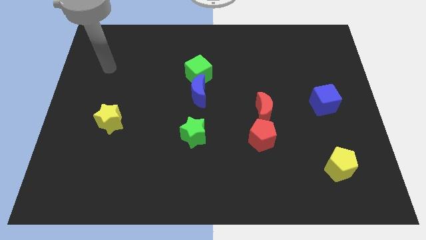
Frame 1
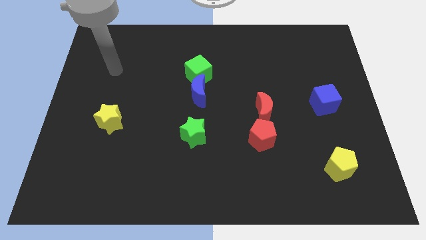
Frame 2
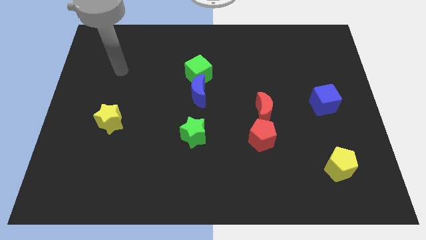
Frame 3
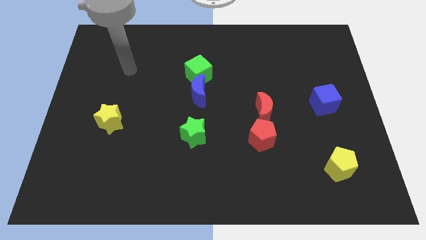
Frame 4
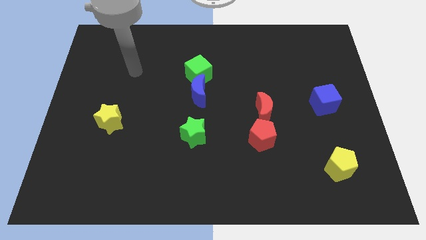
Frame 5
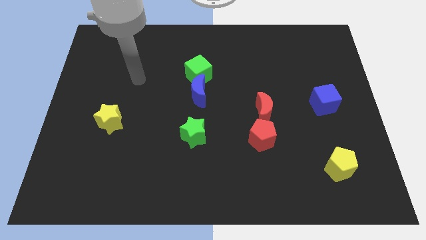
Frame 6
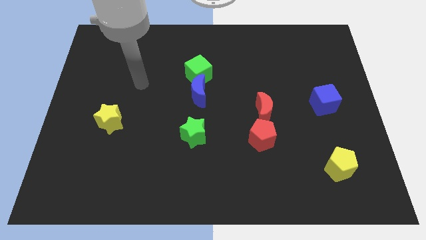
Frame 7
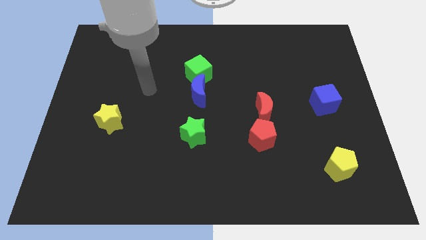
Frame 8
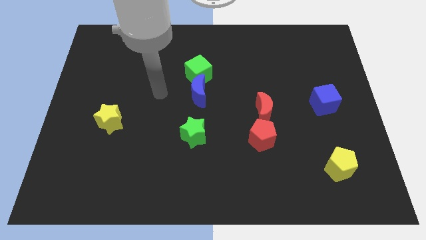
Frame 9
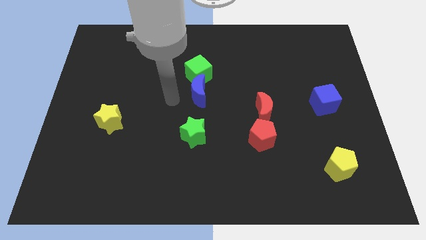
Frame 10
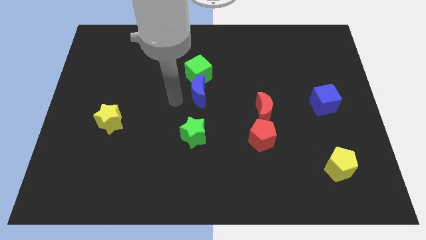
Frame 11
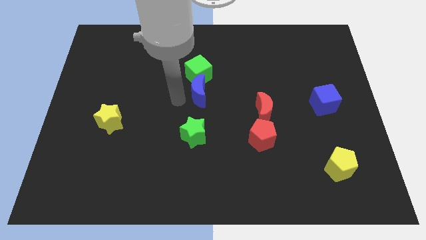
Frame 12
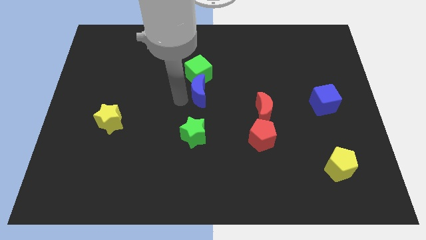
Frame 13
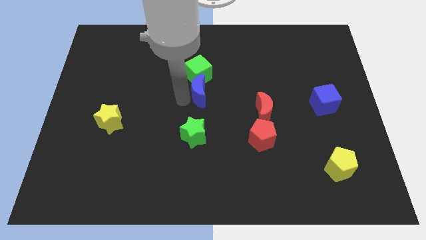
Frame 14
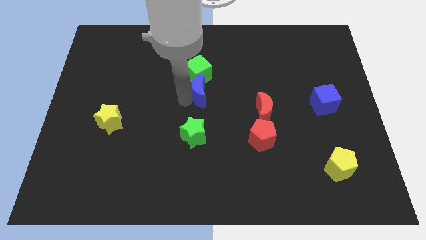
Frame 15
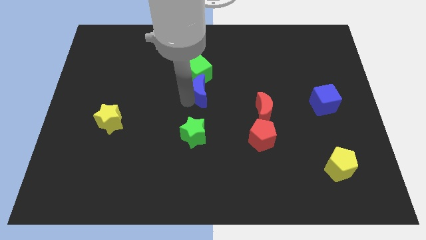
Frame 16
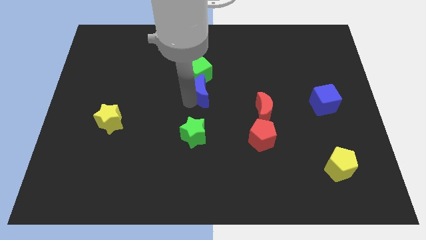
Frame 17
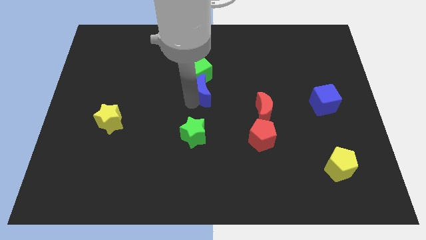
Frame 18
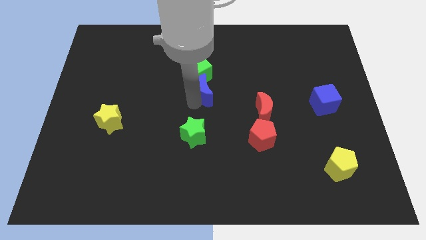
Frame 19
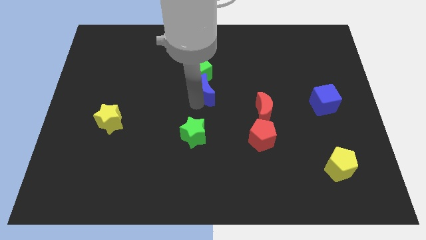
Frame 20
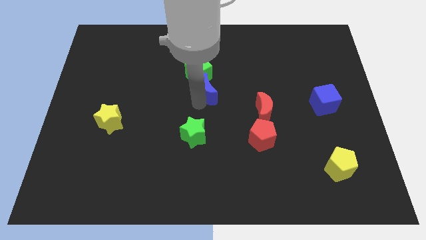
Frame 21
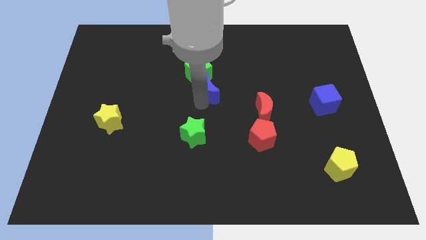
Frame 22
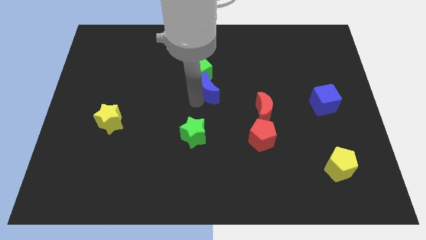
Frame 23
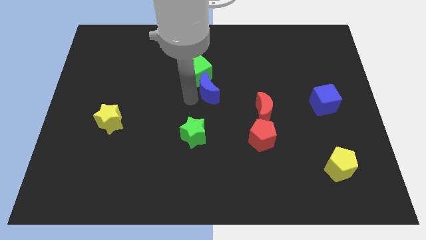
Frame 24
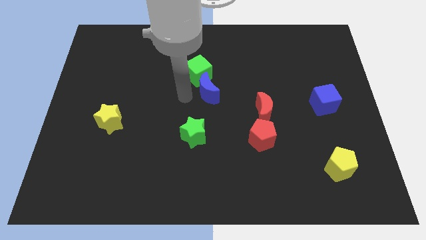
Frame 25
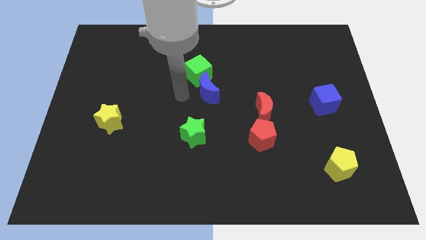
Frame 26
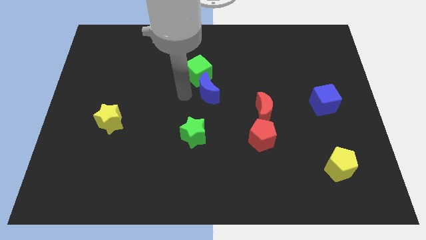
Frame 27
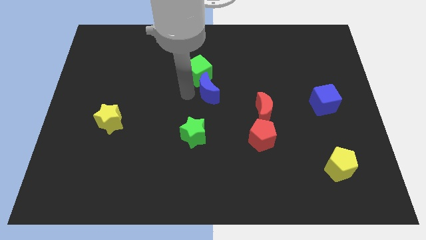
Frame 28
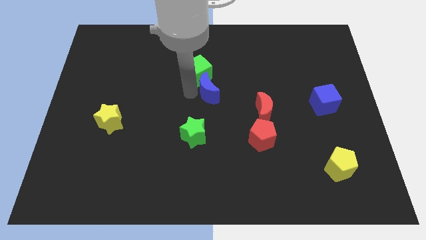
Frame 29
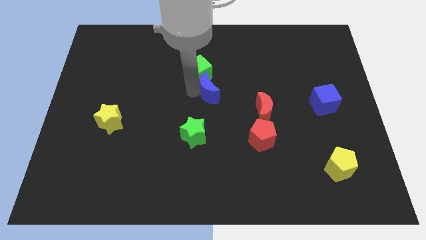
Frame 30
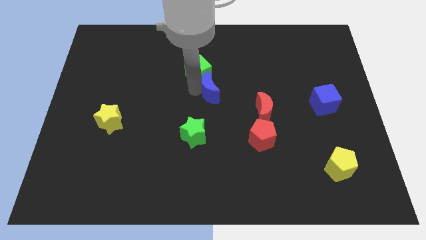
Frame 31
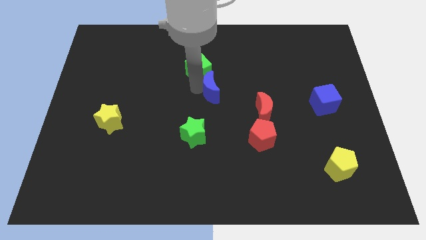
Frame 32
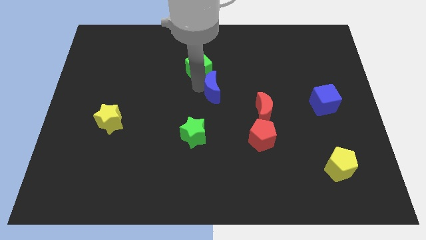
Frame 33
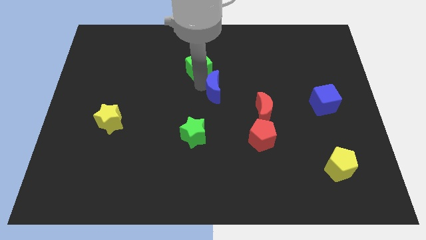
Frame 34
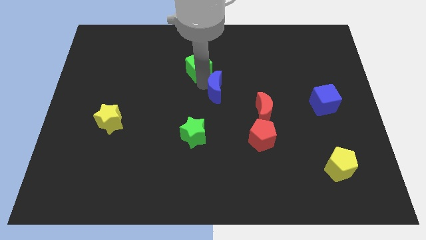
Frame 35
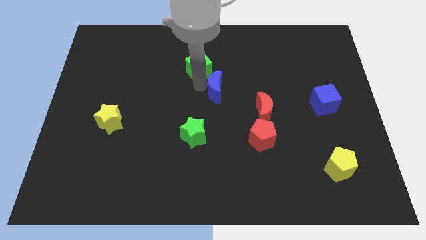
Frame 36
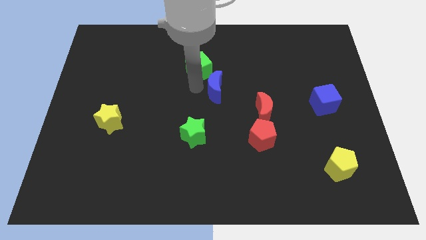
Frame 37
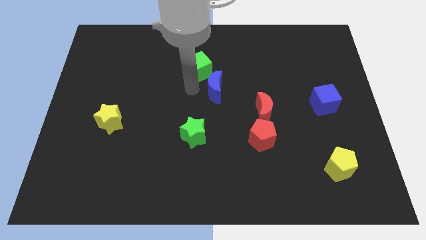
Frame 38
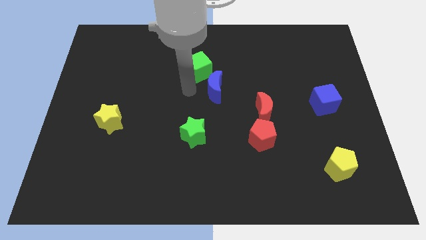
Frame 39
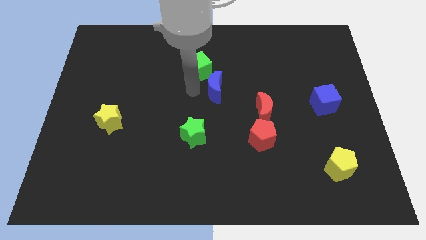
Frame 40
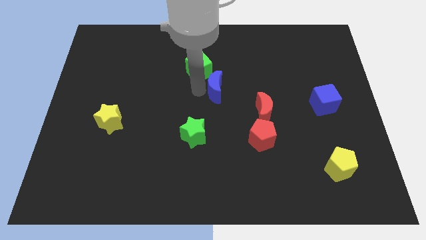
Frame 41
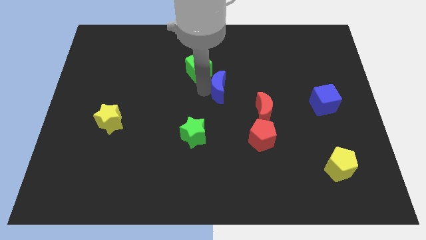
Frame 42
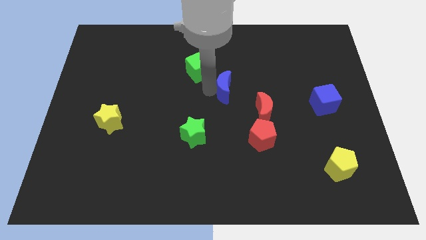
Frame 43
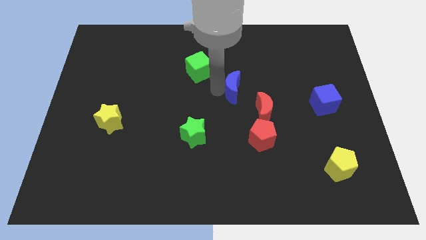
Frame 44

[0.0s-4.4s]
push the blue moon a bit to the right

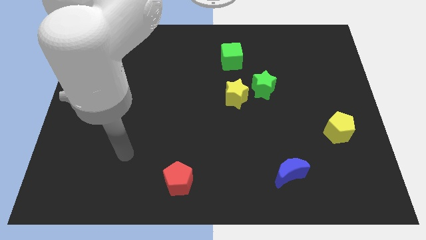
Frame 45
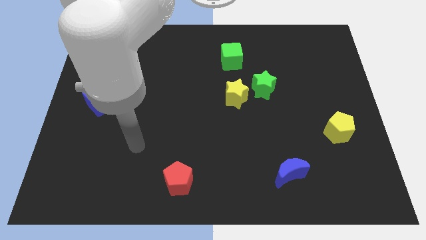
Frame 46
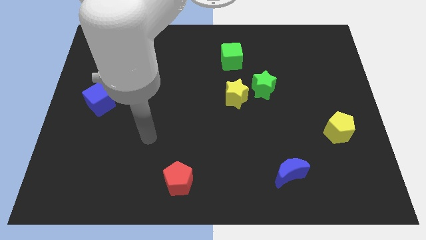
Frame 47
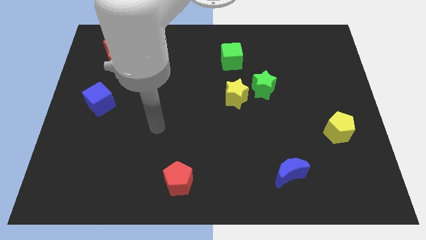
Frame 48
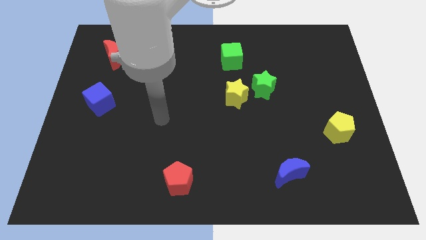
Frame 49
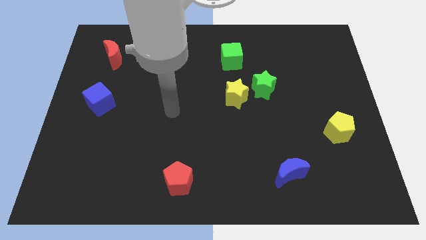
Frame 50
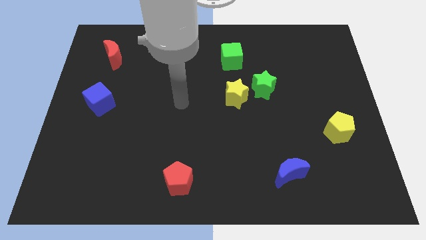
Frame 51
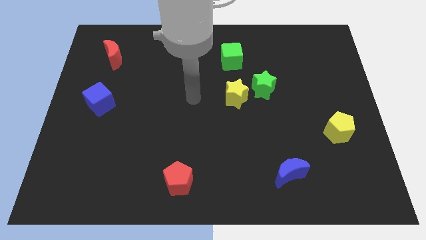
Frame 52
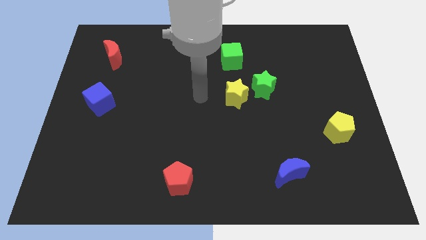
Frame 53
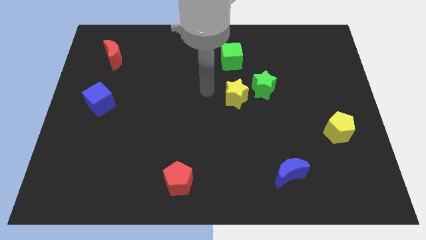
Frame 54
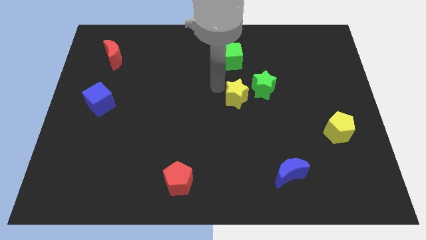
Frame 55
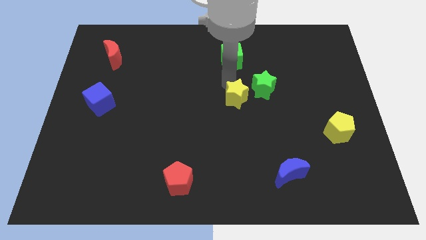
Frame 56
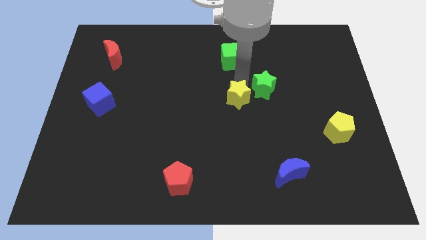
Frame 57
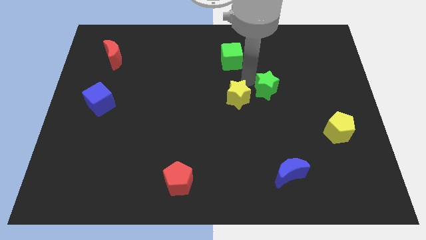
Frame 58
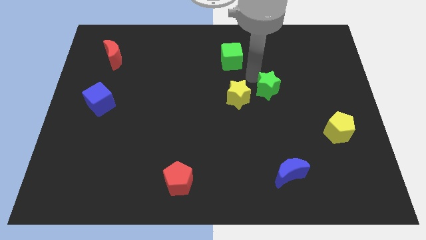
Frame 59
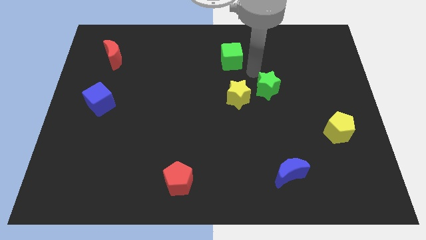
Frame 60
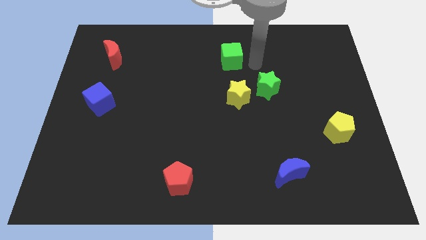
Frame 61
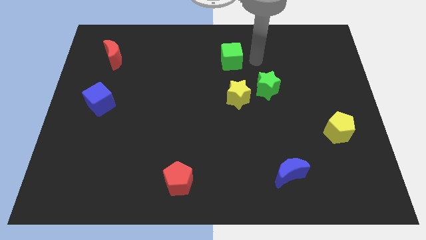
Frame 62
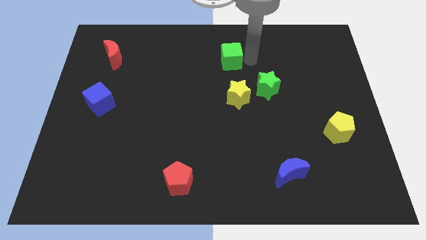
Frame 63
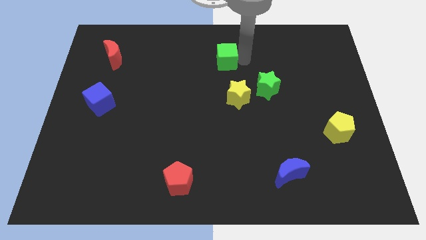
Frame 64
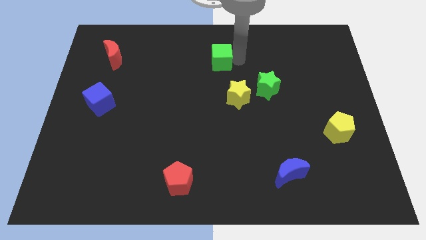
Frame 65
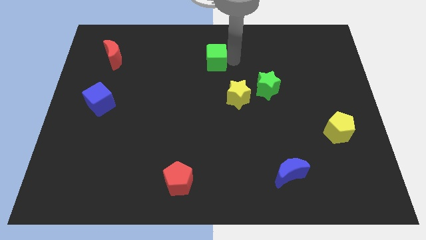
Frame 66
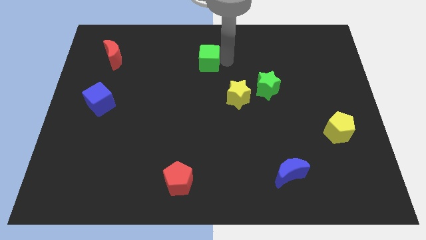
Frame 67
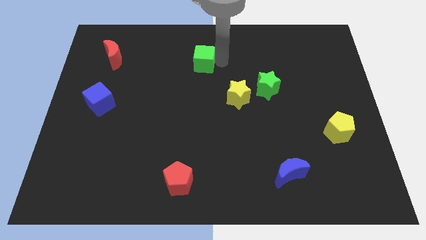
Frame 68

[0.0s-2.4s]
move the green cube slightly to the left

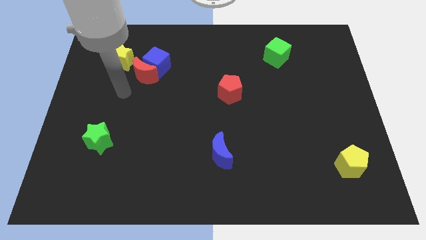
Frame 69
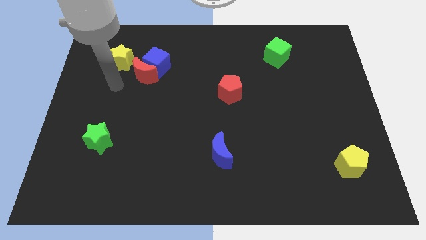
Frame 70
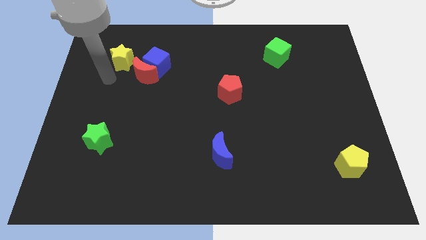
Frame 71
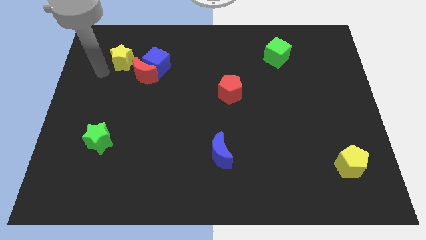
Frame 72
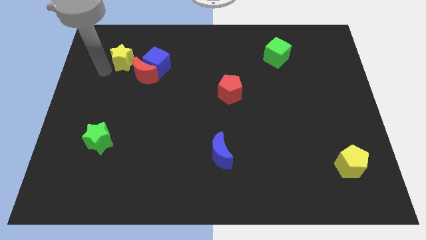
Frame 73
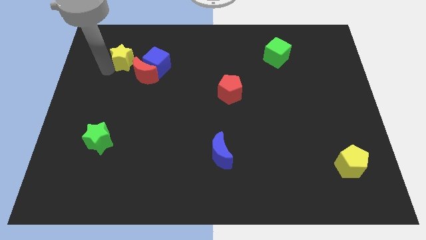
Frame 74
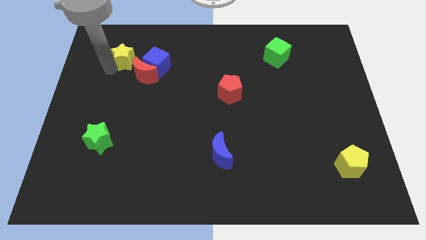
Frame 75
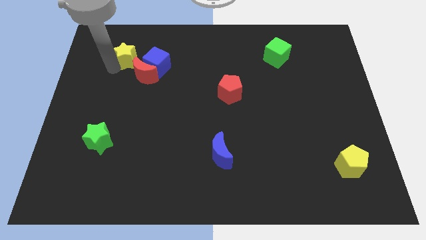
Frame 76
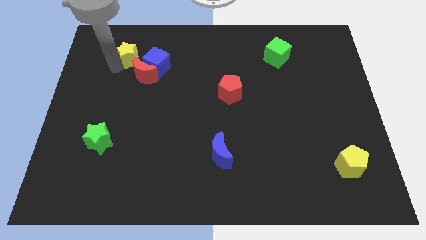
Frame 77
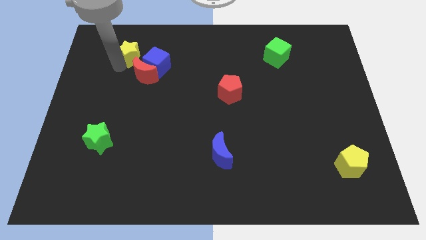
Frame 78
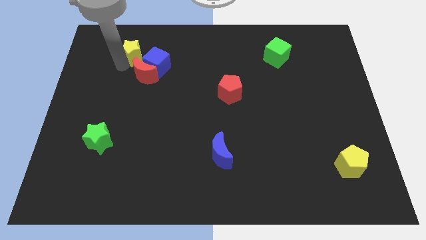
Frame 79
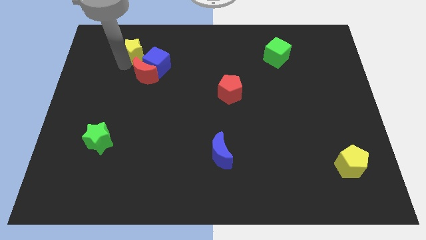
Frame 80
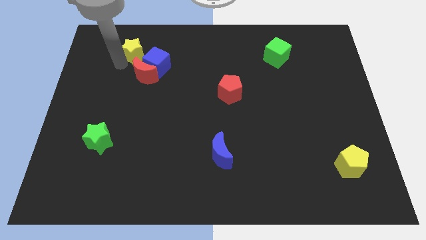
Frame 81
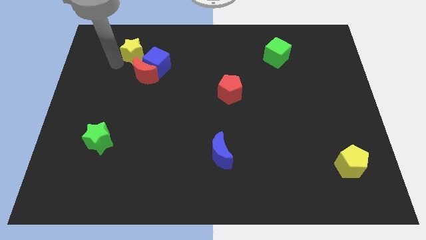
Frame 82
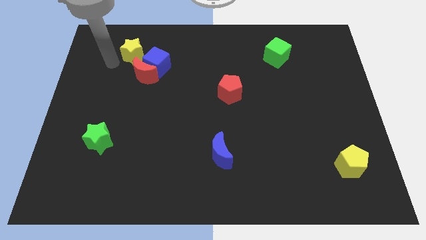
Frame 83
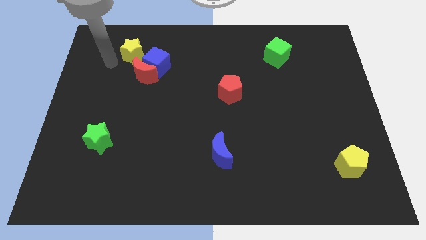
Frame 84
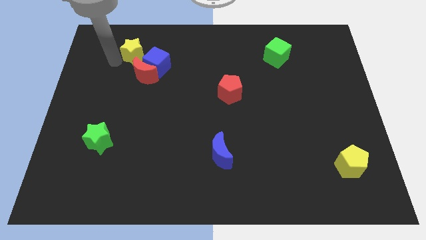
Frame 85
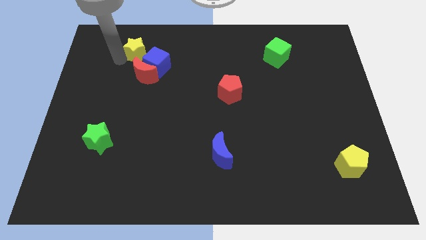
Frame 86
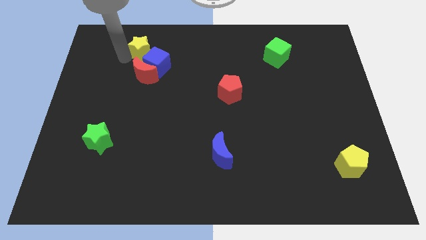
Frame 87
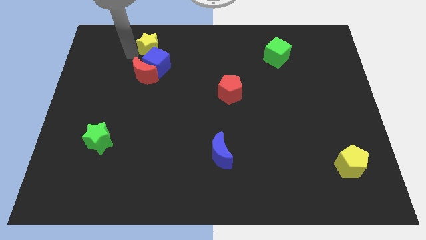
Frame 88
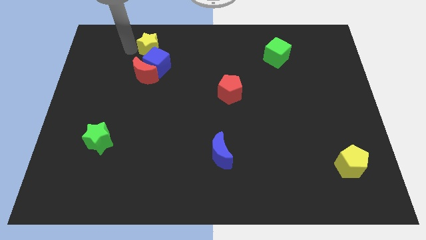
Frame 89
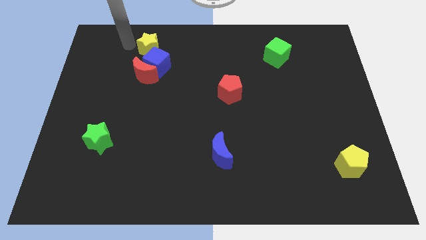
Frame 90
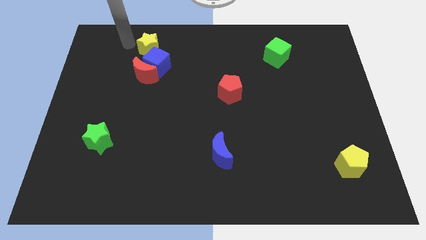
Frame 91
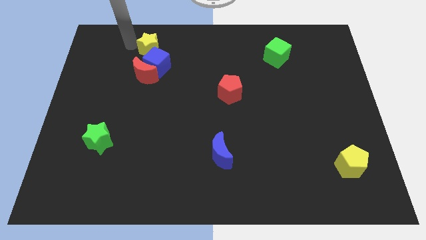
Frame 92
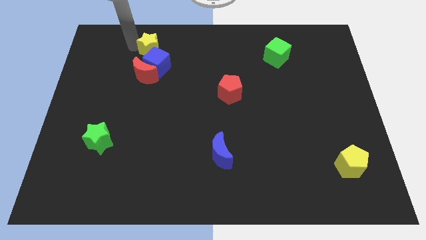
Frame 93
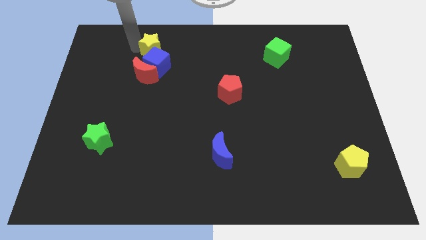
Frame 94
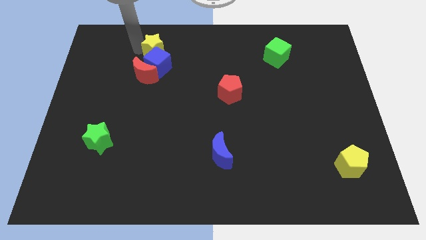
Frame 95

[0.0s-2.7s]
slide the yellow star slightly to the right
